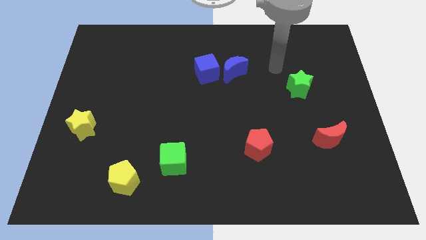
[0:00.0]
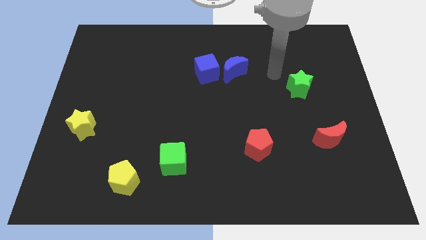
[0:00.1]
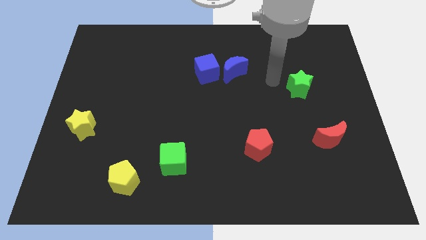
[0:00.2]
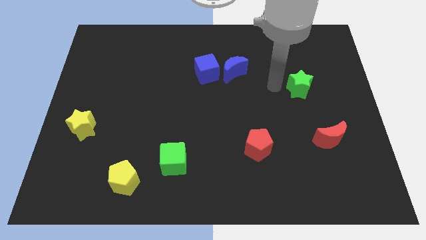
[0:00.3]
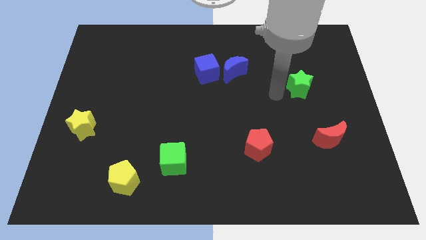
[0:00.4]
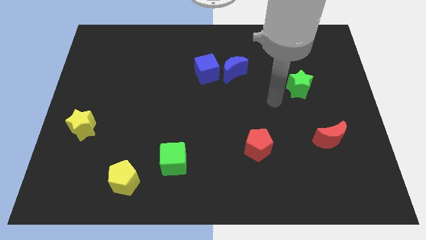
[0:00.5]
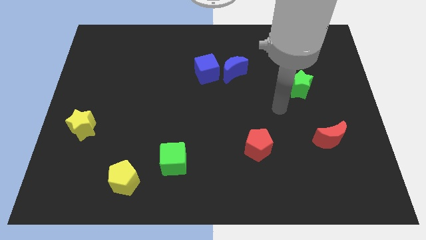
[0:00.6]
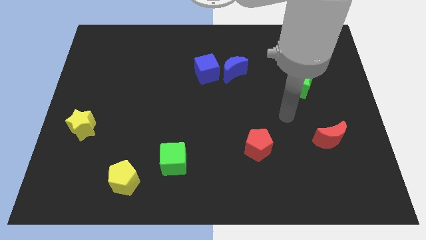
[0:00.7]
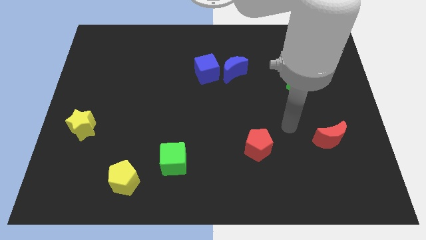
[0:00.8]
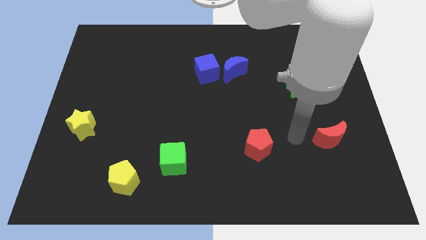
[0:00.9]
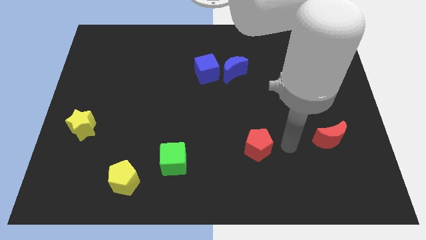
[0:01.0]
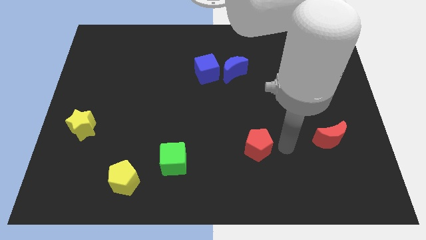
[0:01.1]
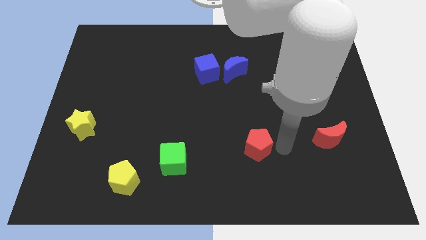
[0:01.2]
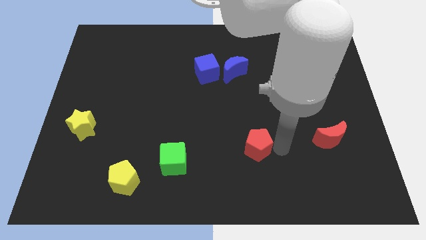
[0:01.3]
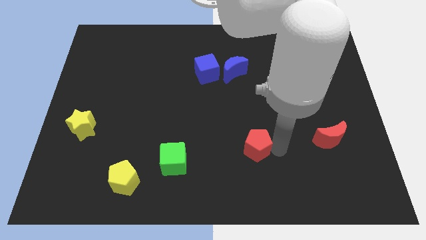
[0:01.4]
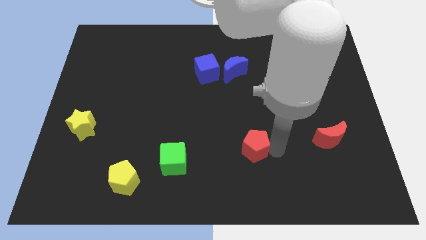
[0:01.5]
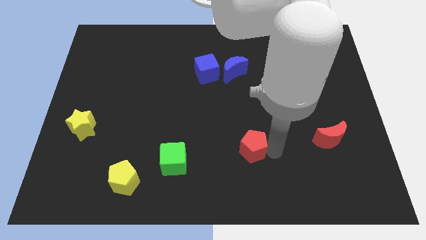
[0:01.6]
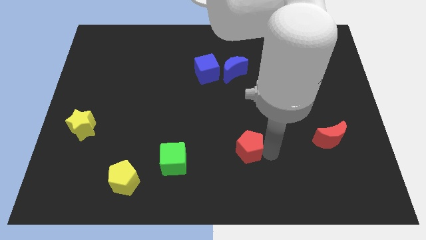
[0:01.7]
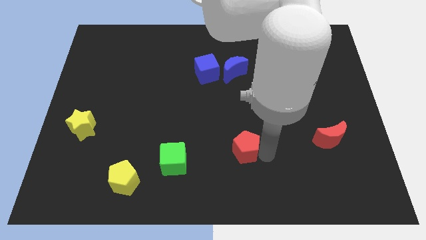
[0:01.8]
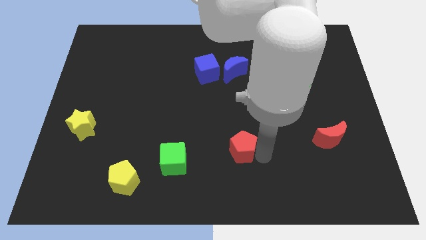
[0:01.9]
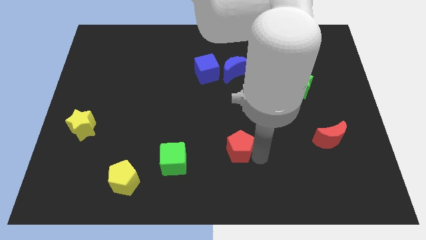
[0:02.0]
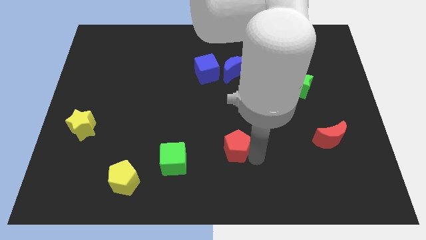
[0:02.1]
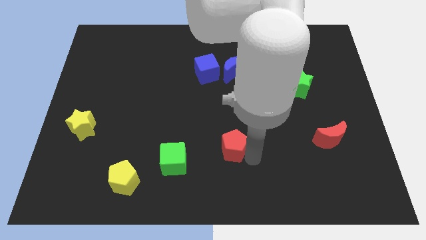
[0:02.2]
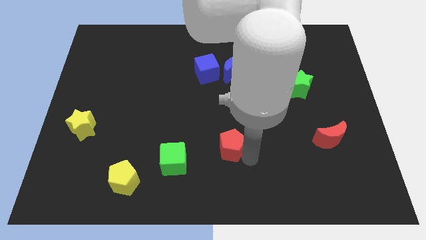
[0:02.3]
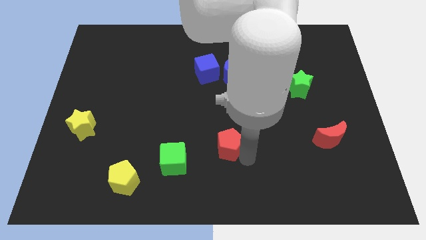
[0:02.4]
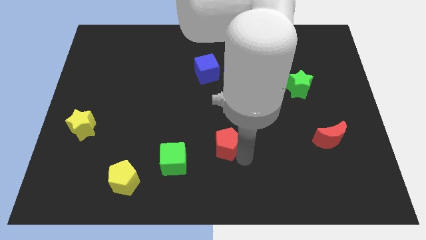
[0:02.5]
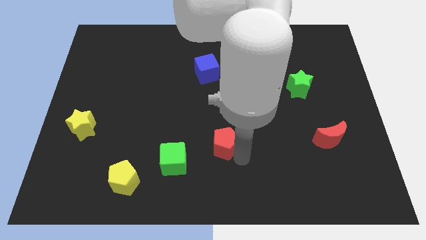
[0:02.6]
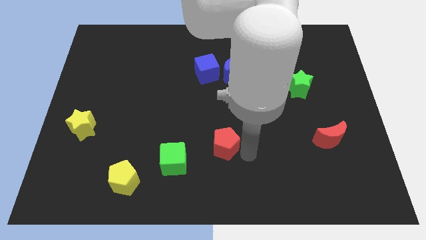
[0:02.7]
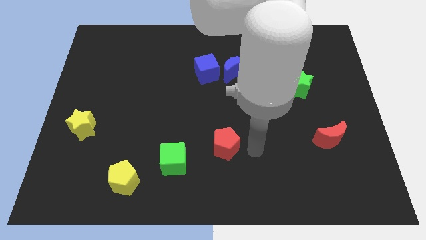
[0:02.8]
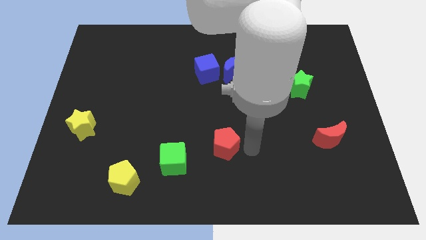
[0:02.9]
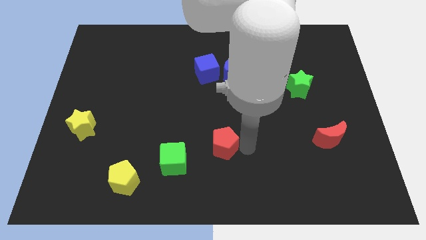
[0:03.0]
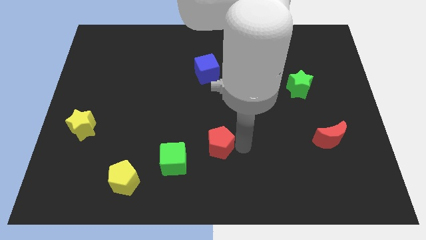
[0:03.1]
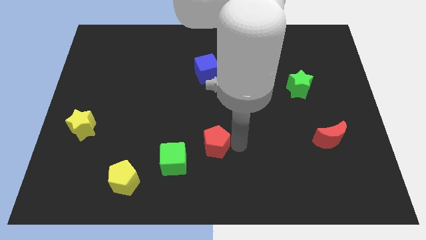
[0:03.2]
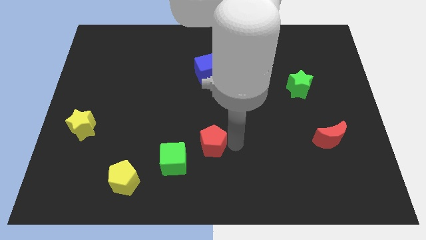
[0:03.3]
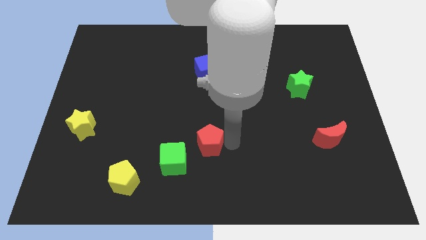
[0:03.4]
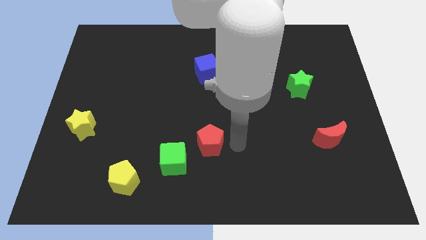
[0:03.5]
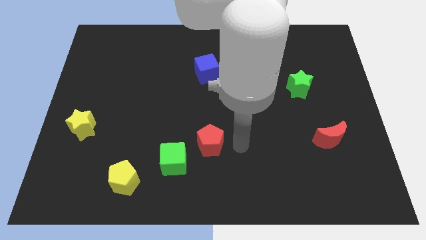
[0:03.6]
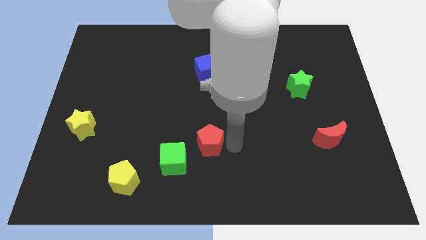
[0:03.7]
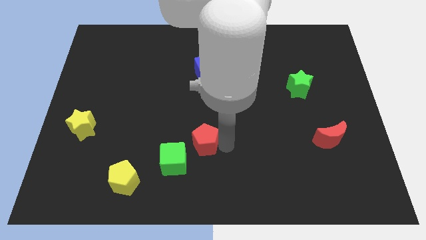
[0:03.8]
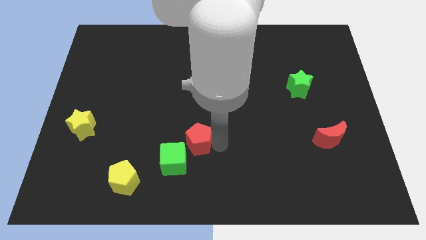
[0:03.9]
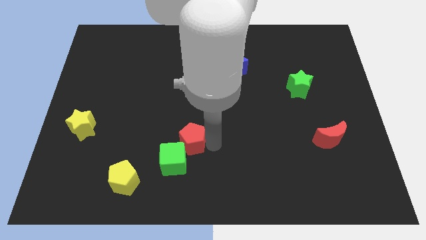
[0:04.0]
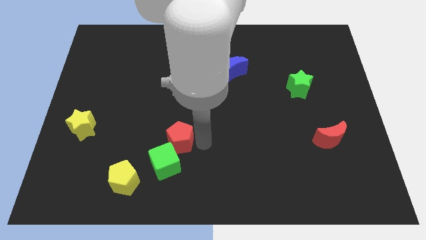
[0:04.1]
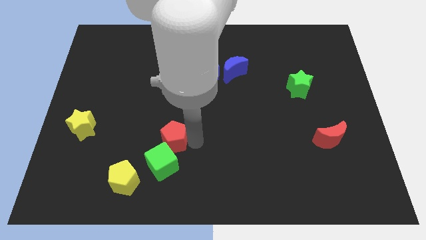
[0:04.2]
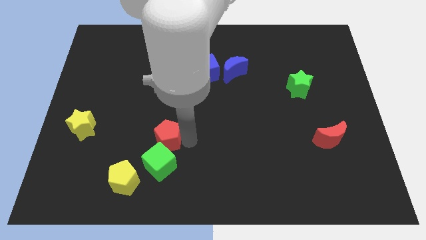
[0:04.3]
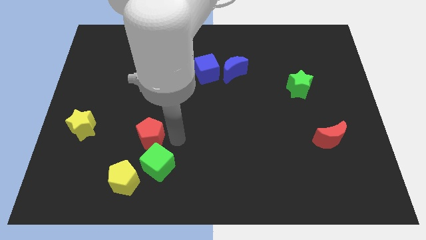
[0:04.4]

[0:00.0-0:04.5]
slide the red pentagon left

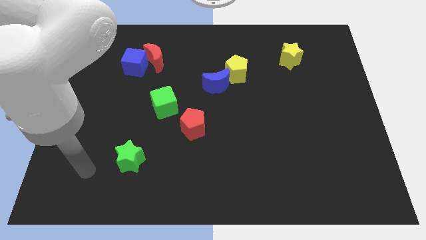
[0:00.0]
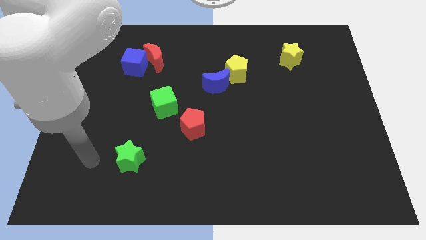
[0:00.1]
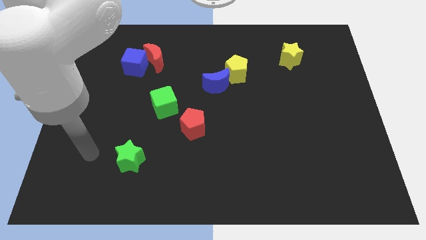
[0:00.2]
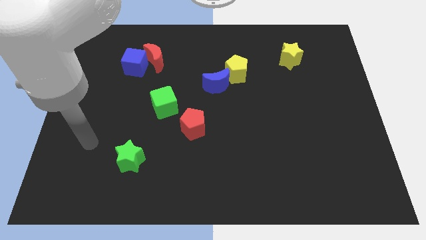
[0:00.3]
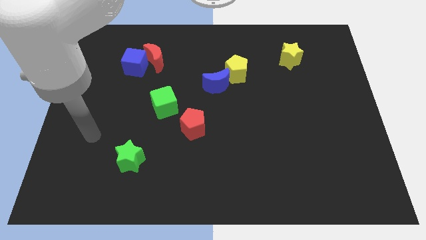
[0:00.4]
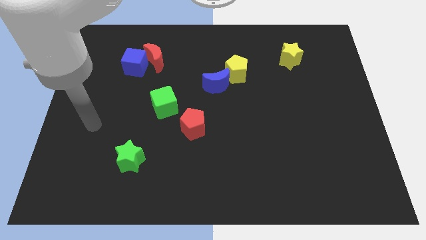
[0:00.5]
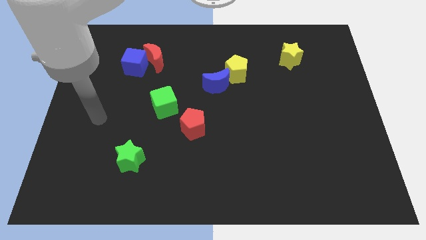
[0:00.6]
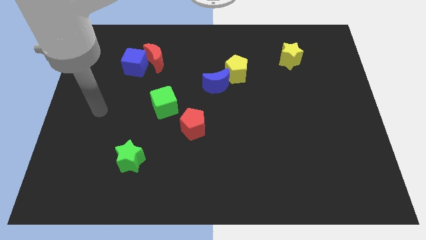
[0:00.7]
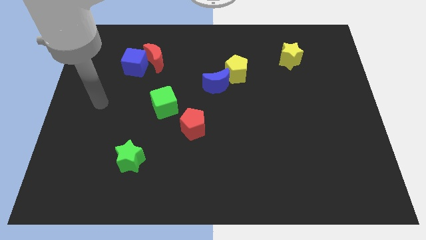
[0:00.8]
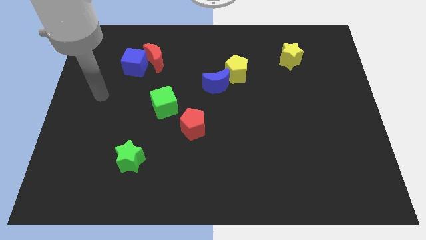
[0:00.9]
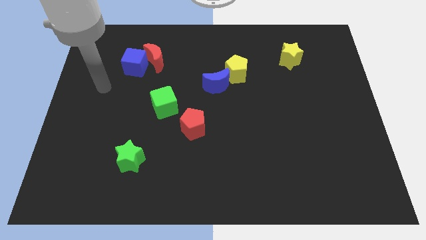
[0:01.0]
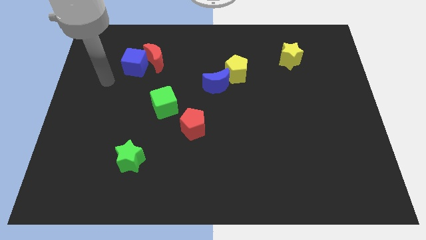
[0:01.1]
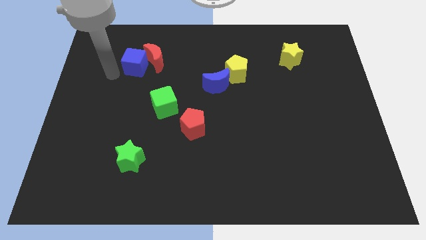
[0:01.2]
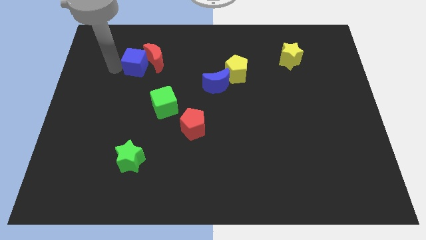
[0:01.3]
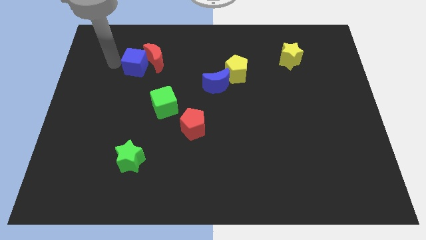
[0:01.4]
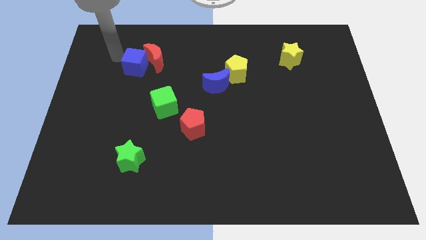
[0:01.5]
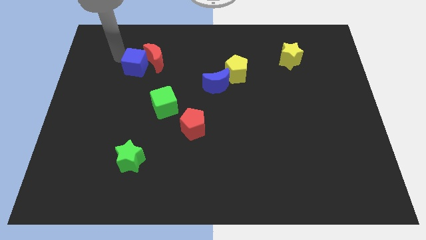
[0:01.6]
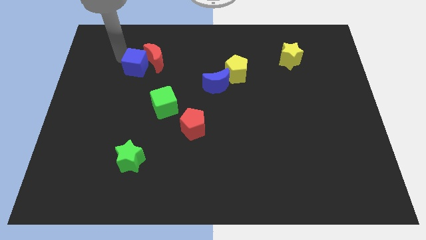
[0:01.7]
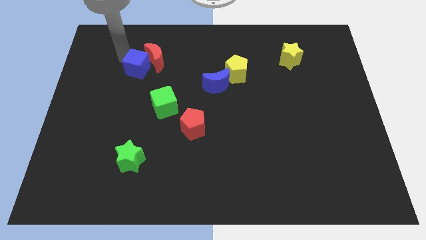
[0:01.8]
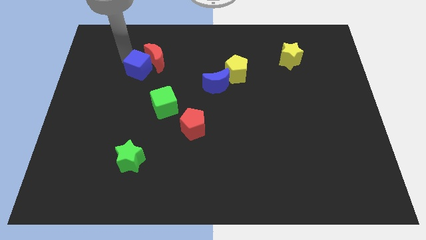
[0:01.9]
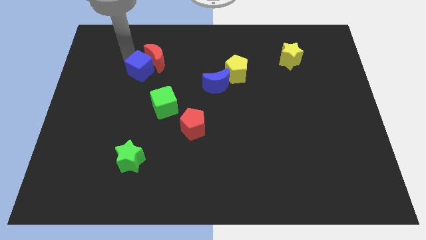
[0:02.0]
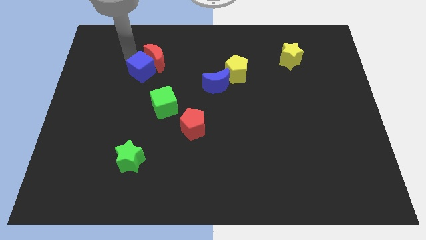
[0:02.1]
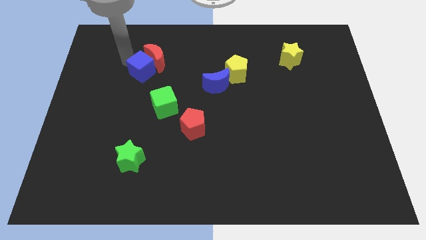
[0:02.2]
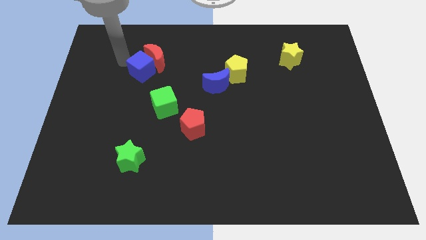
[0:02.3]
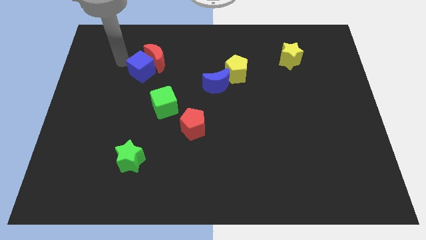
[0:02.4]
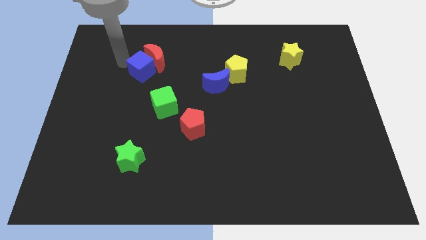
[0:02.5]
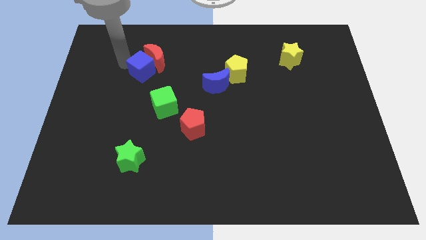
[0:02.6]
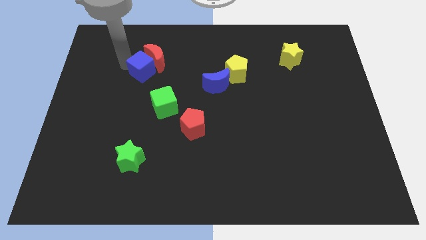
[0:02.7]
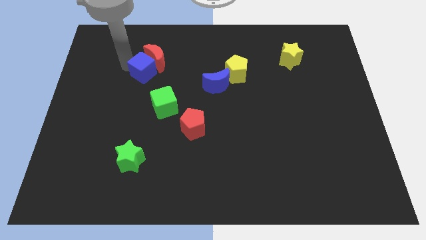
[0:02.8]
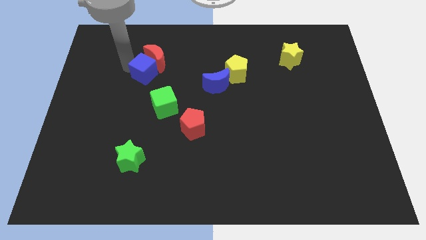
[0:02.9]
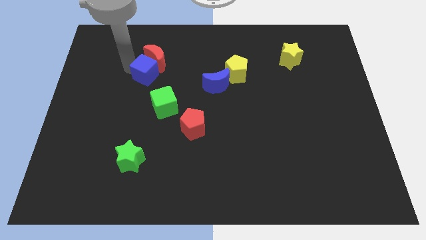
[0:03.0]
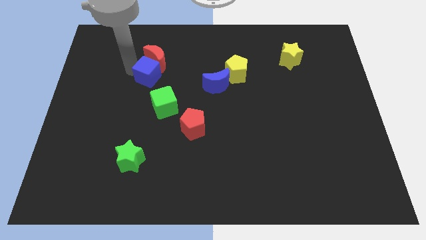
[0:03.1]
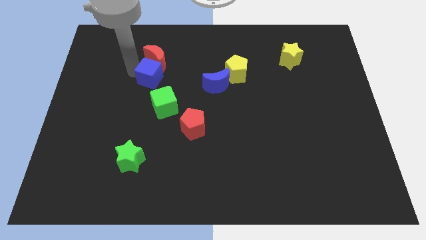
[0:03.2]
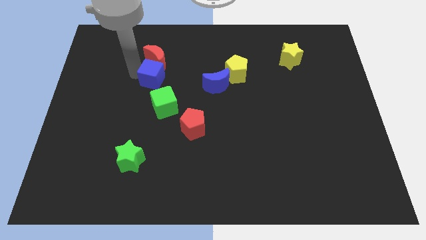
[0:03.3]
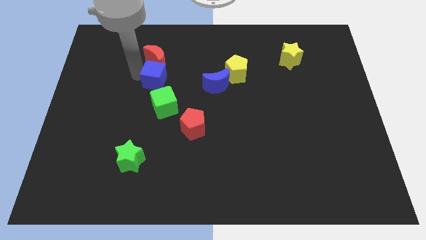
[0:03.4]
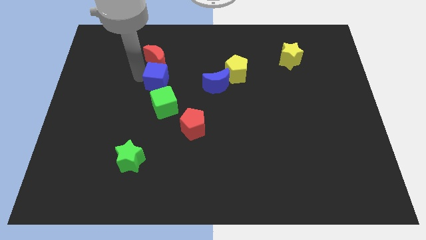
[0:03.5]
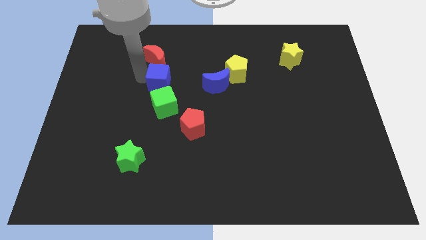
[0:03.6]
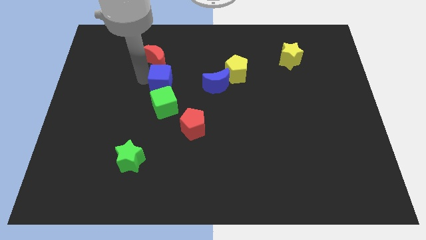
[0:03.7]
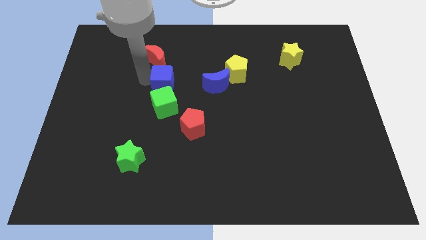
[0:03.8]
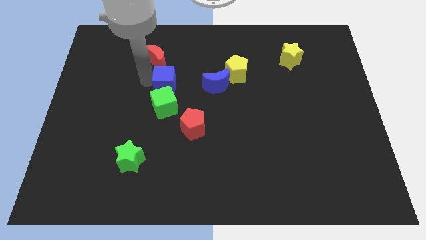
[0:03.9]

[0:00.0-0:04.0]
push the blue cube right a little
